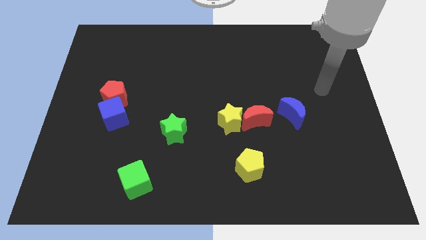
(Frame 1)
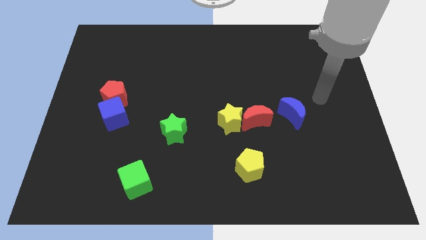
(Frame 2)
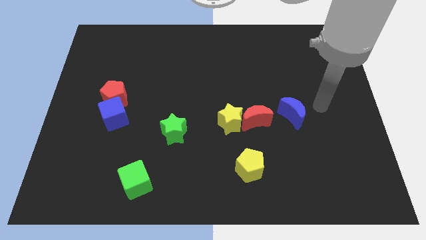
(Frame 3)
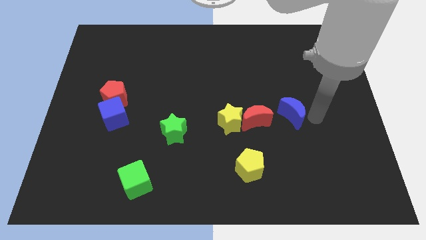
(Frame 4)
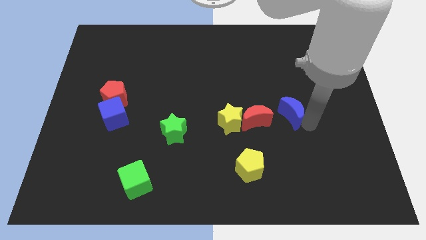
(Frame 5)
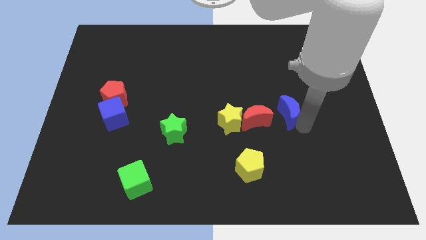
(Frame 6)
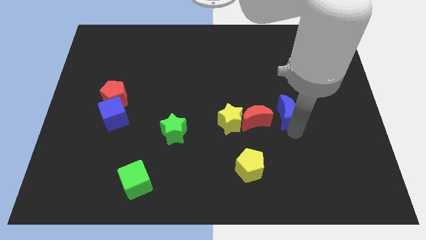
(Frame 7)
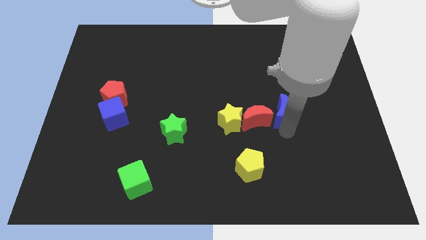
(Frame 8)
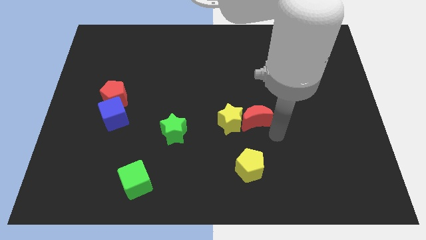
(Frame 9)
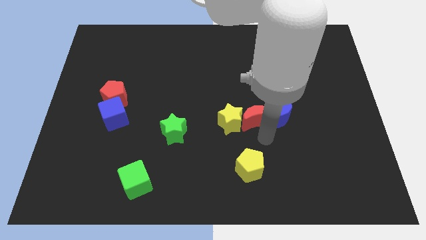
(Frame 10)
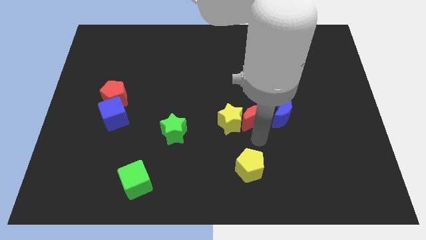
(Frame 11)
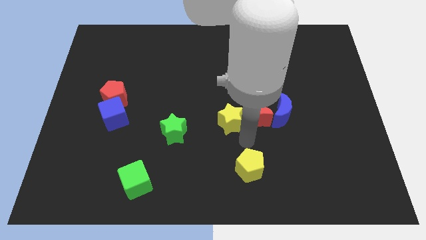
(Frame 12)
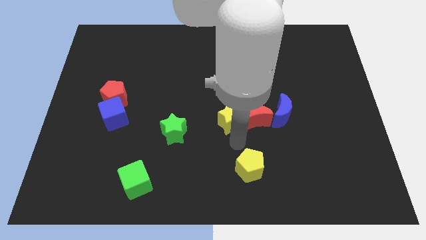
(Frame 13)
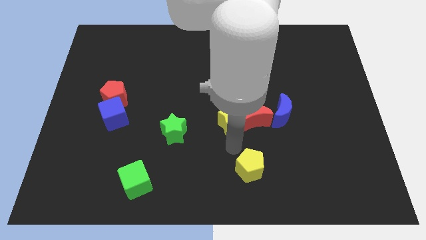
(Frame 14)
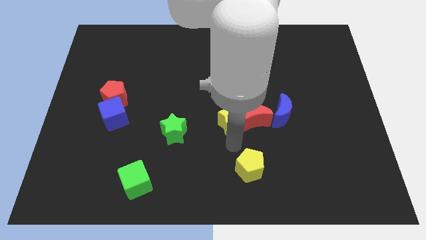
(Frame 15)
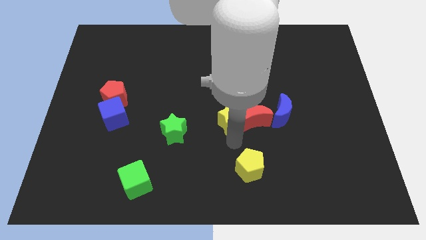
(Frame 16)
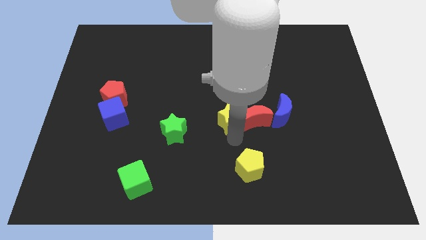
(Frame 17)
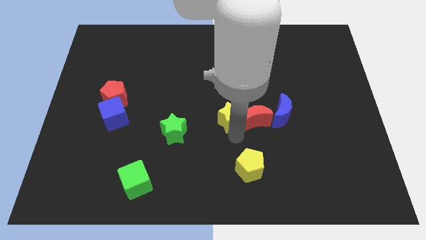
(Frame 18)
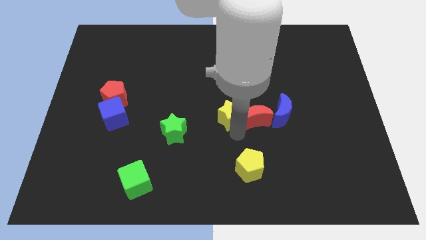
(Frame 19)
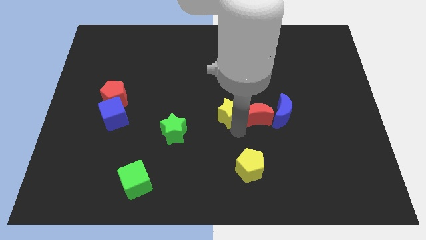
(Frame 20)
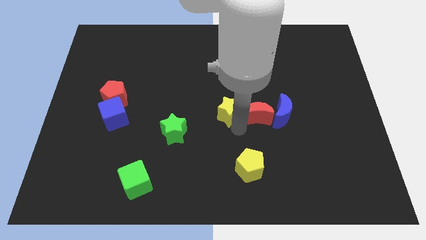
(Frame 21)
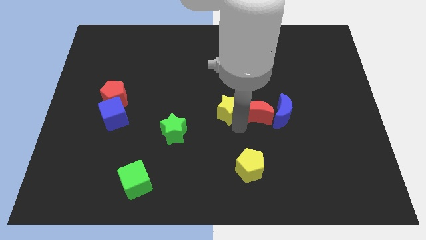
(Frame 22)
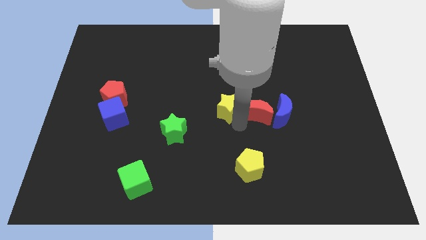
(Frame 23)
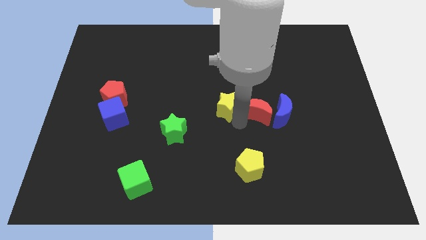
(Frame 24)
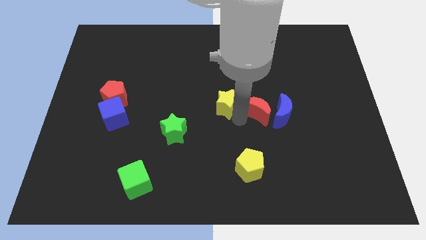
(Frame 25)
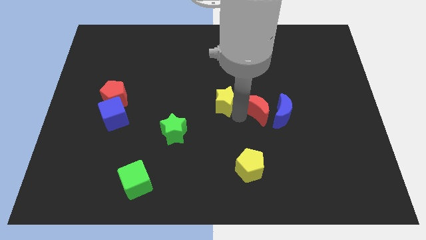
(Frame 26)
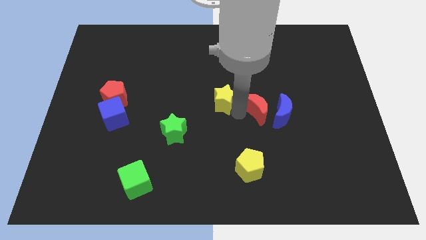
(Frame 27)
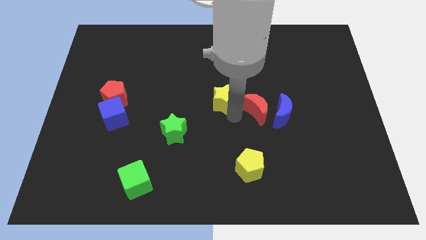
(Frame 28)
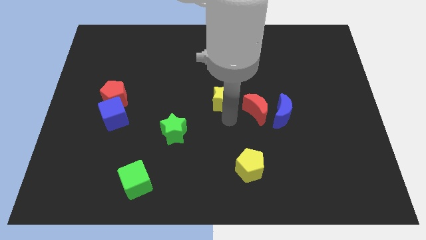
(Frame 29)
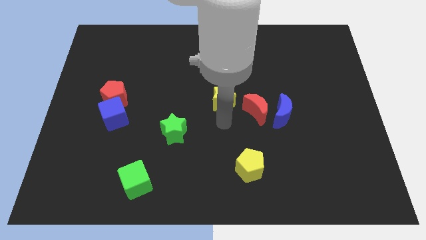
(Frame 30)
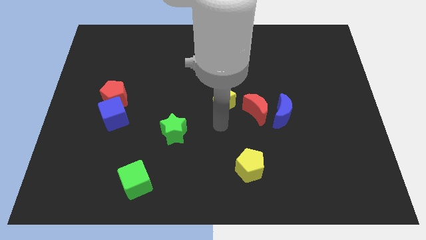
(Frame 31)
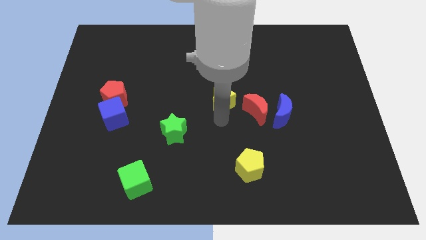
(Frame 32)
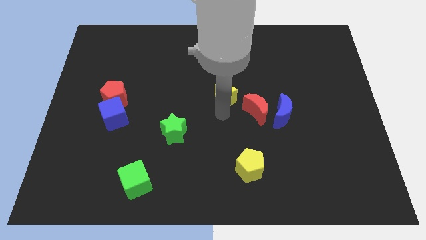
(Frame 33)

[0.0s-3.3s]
slightly slide the yellow star up

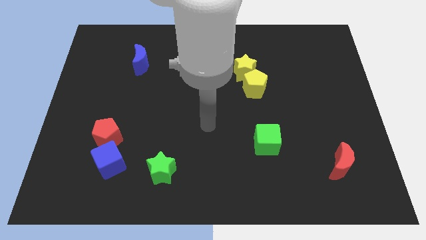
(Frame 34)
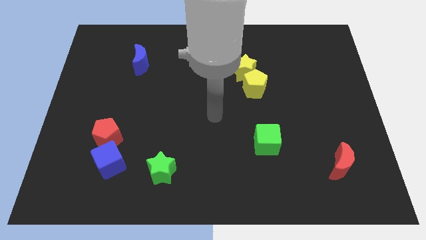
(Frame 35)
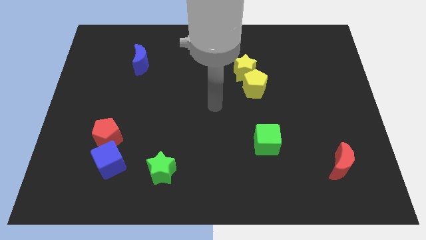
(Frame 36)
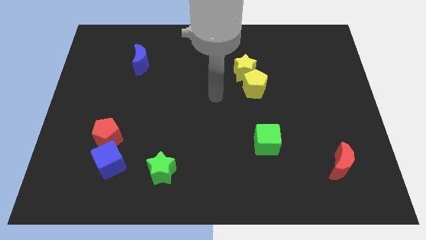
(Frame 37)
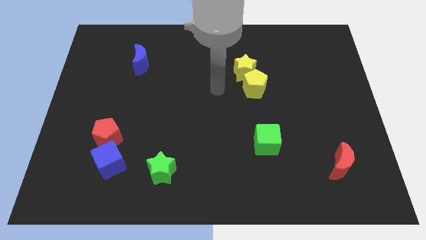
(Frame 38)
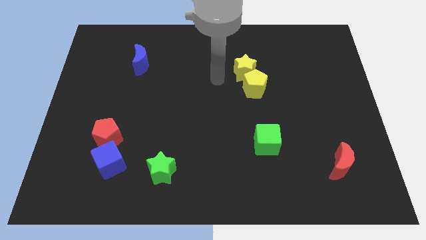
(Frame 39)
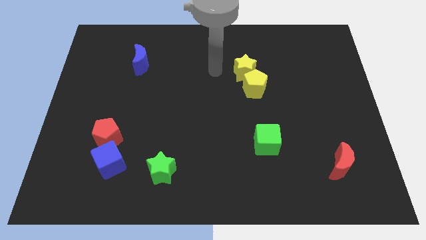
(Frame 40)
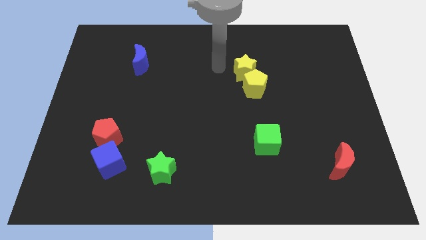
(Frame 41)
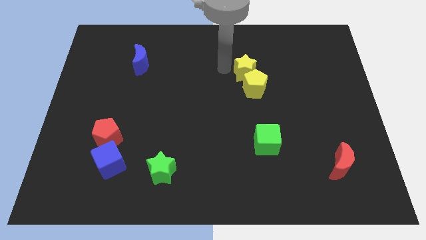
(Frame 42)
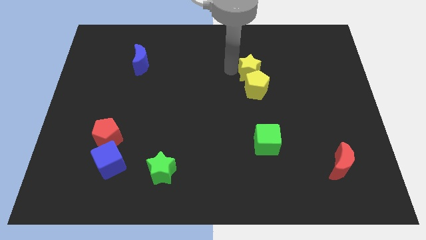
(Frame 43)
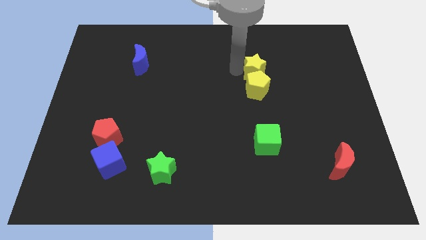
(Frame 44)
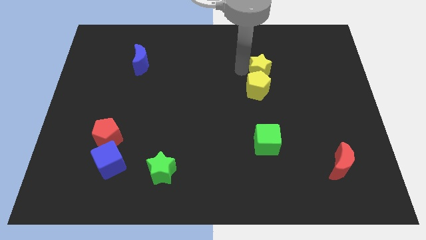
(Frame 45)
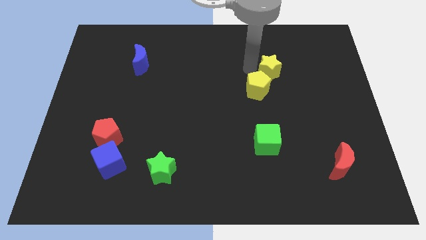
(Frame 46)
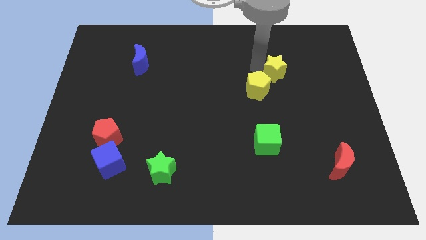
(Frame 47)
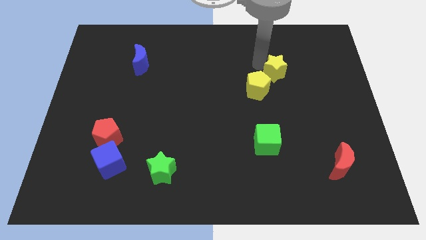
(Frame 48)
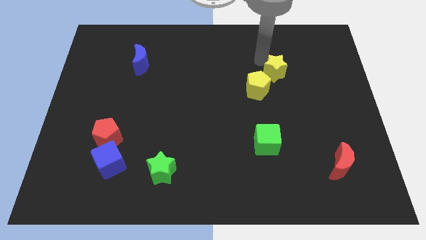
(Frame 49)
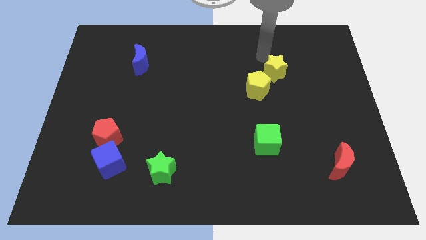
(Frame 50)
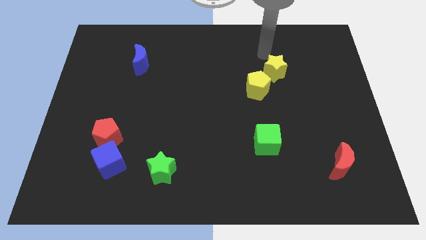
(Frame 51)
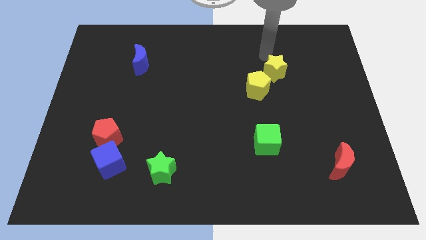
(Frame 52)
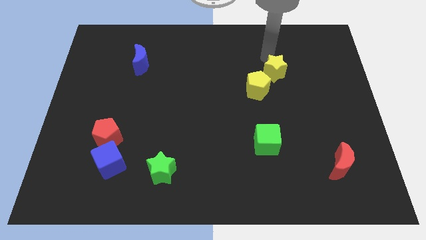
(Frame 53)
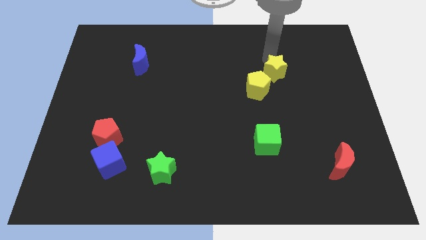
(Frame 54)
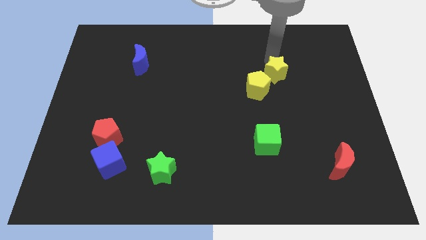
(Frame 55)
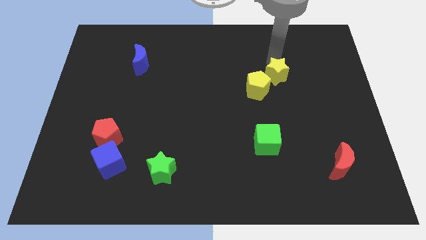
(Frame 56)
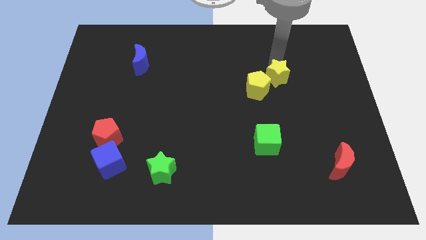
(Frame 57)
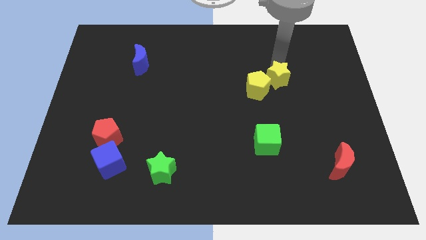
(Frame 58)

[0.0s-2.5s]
slide the yellow star a little bit downwards and to the right diagonally

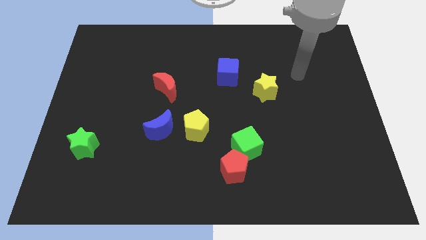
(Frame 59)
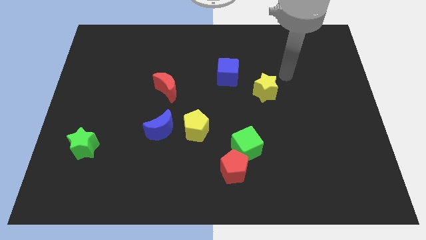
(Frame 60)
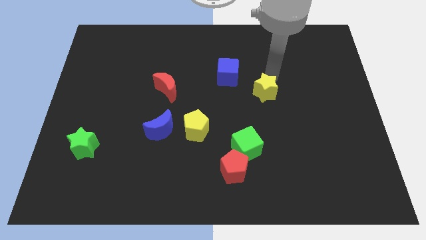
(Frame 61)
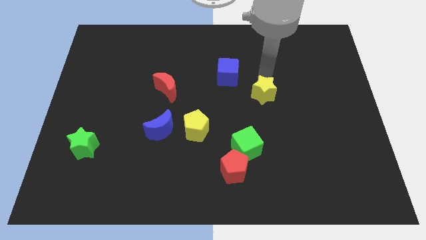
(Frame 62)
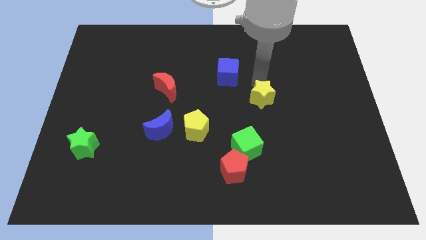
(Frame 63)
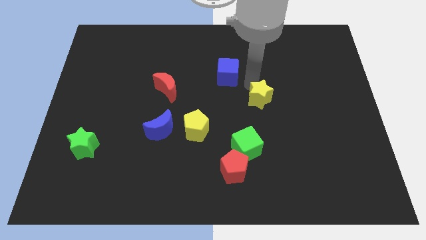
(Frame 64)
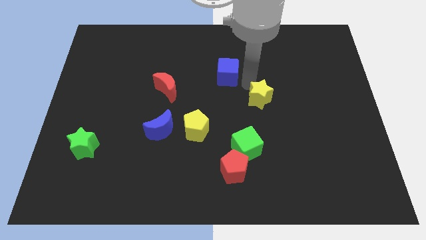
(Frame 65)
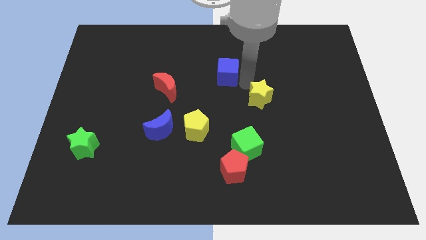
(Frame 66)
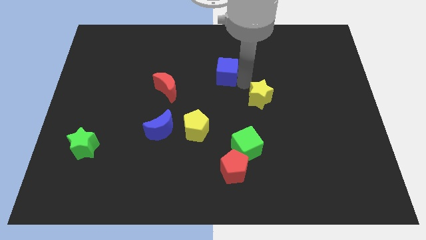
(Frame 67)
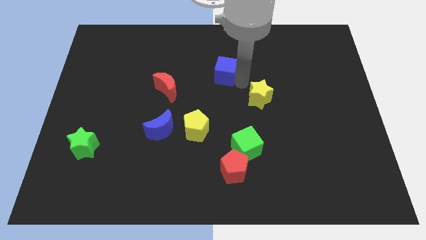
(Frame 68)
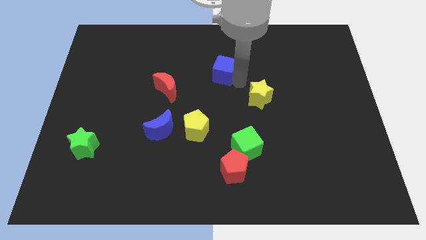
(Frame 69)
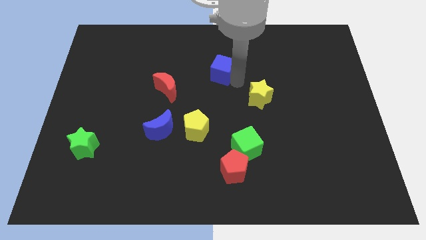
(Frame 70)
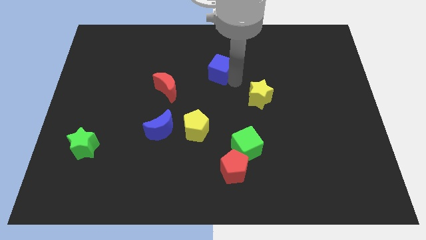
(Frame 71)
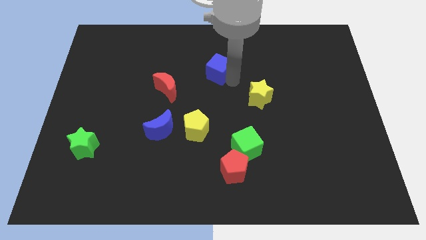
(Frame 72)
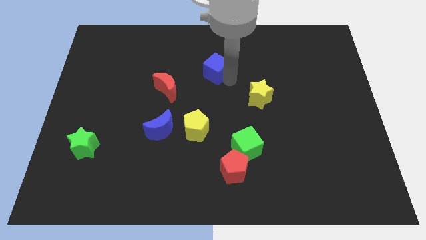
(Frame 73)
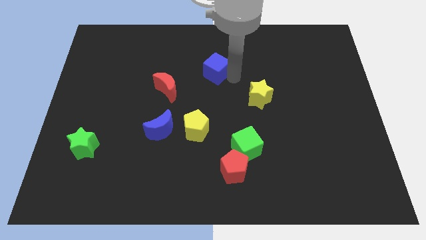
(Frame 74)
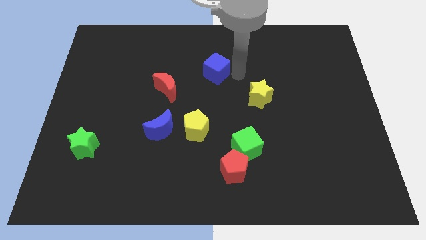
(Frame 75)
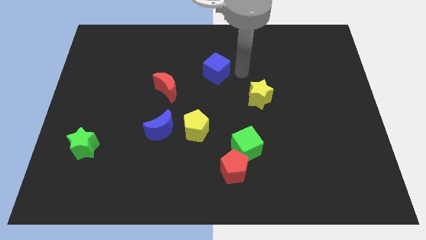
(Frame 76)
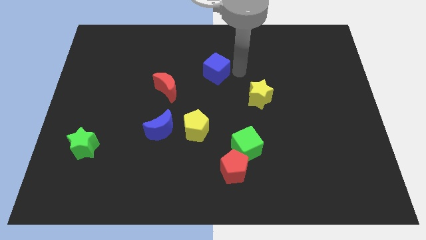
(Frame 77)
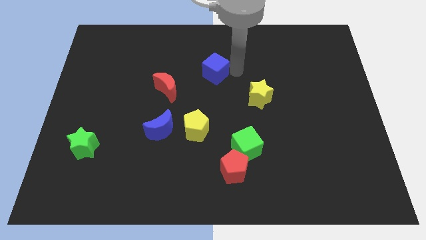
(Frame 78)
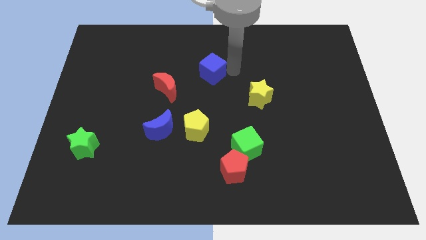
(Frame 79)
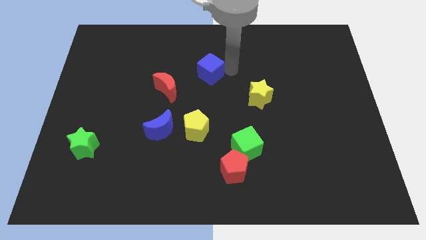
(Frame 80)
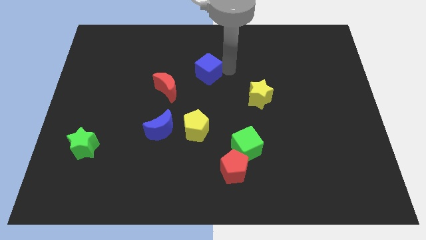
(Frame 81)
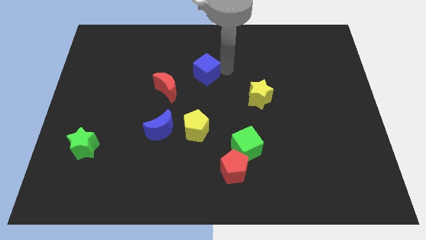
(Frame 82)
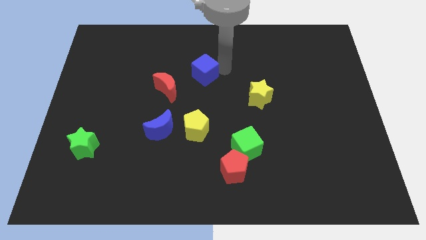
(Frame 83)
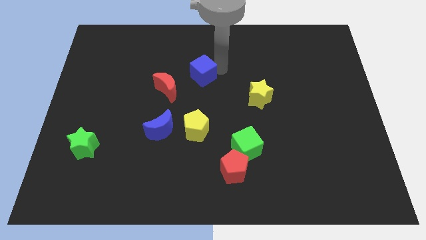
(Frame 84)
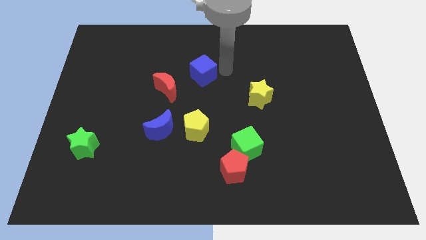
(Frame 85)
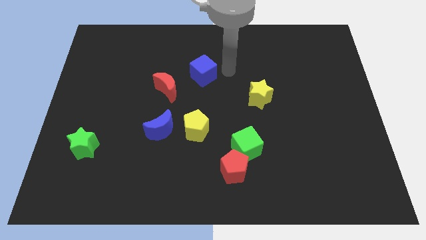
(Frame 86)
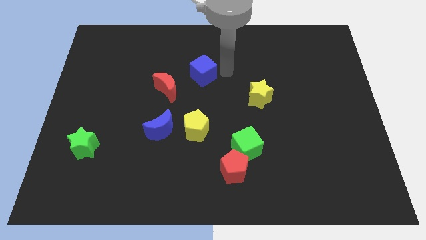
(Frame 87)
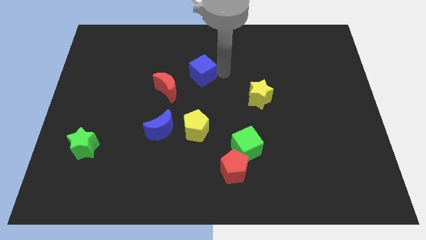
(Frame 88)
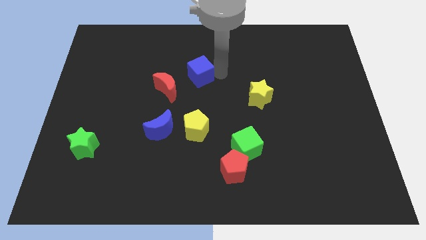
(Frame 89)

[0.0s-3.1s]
slide the blue cube to the left slightly
